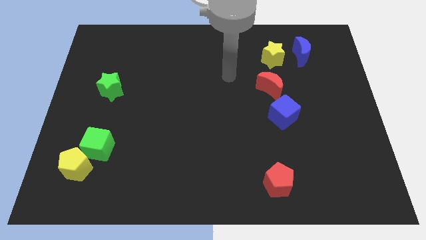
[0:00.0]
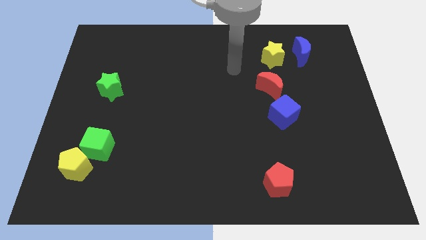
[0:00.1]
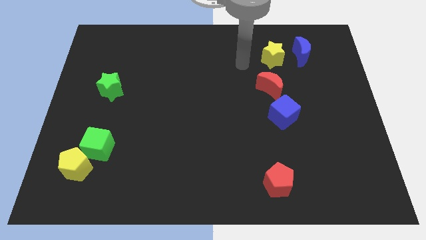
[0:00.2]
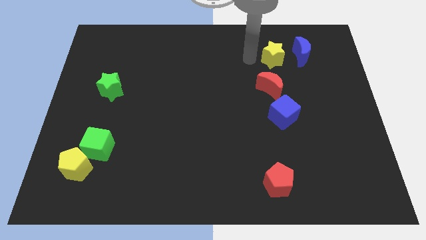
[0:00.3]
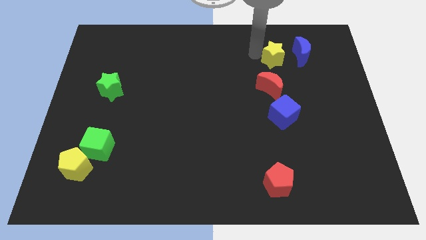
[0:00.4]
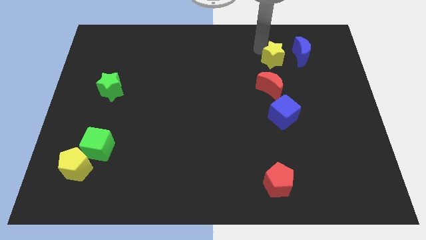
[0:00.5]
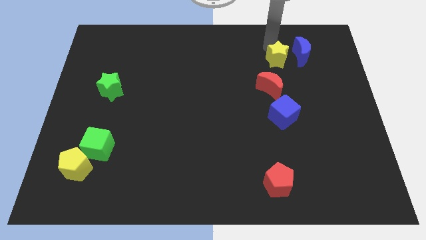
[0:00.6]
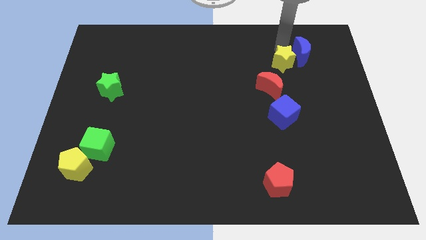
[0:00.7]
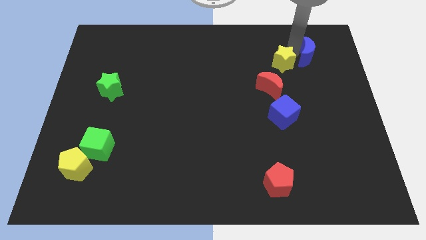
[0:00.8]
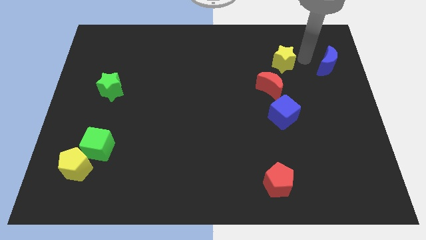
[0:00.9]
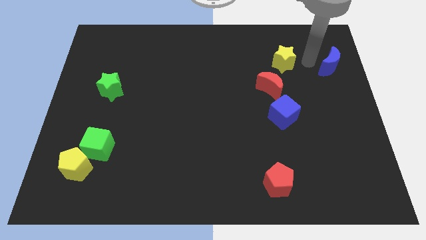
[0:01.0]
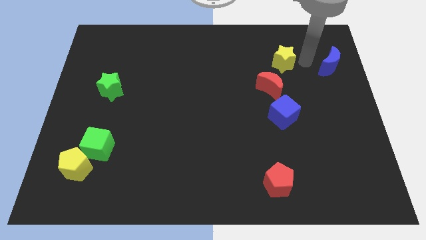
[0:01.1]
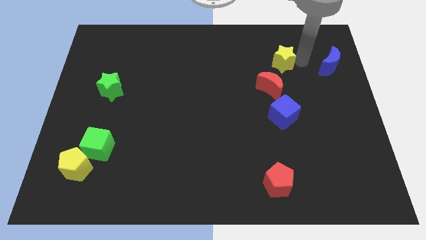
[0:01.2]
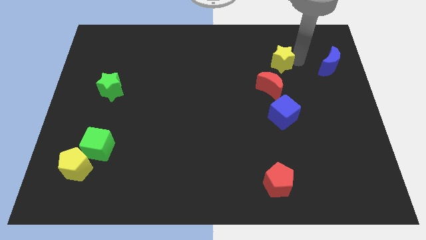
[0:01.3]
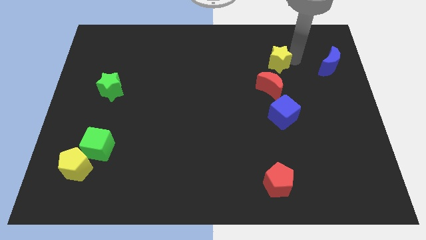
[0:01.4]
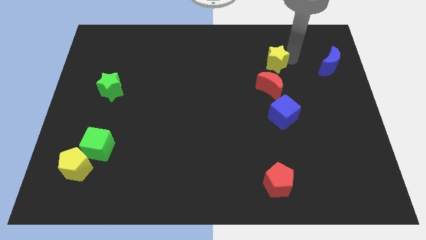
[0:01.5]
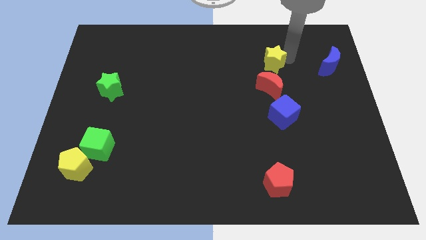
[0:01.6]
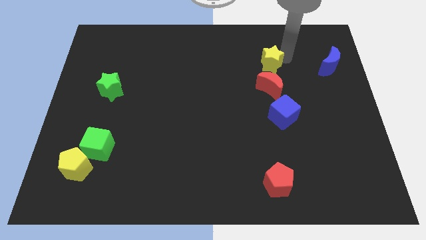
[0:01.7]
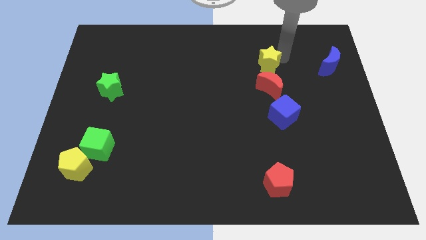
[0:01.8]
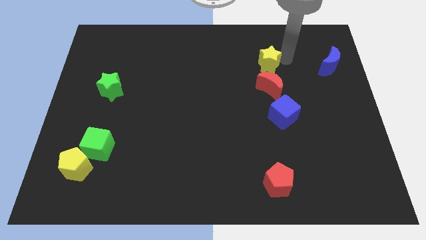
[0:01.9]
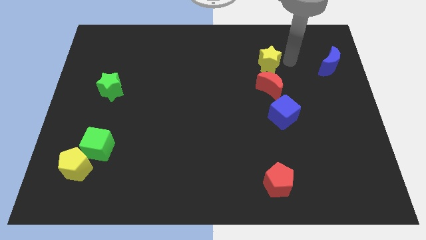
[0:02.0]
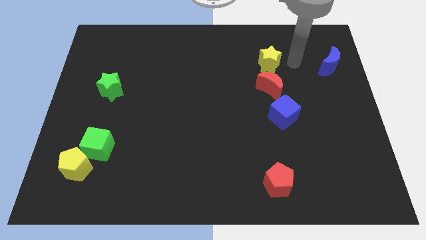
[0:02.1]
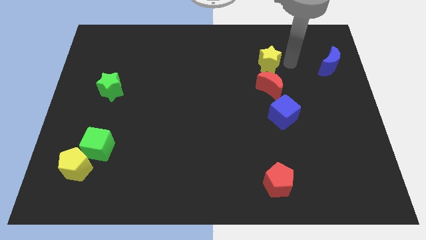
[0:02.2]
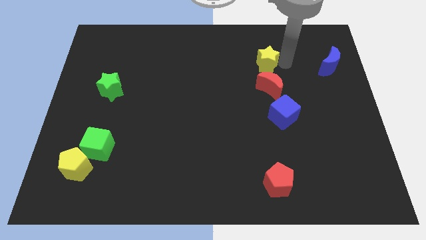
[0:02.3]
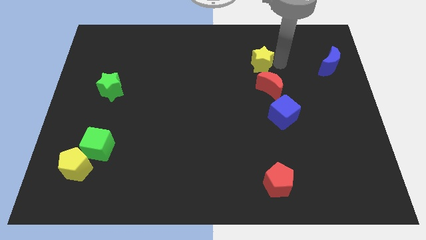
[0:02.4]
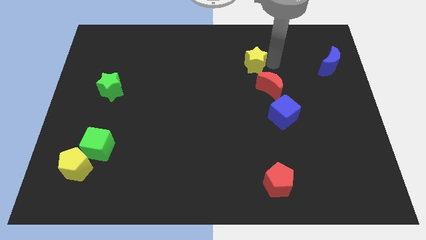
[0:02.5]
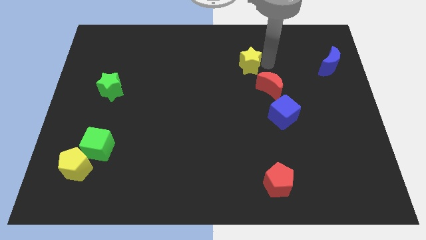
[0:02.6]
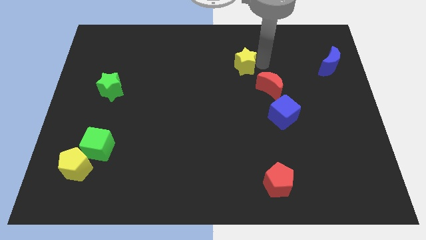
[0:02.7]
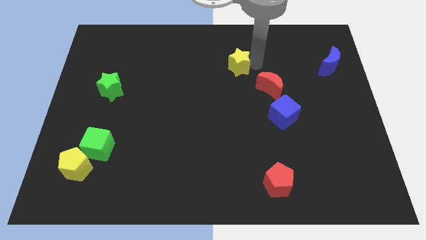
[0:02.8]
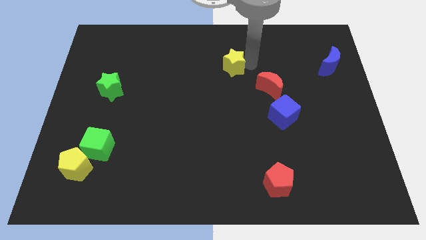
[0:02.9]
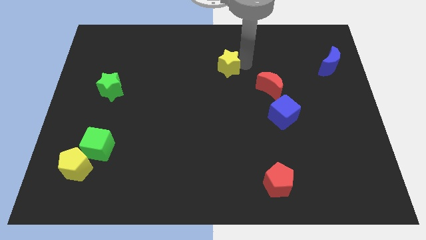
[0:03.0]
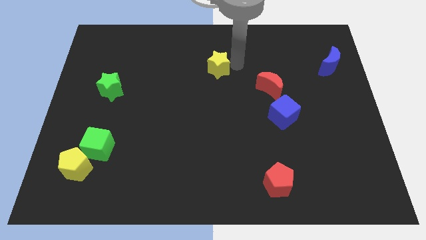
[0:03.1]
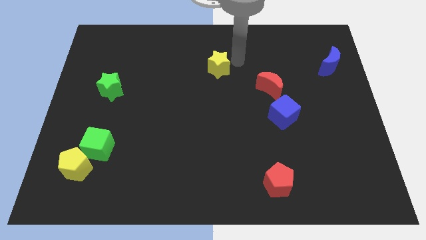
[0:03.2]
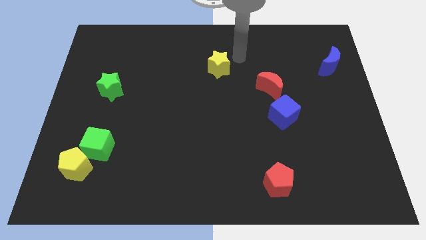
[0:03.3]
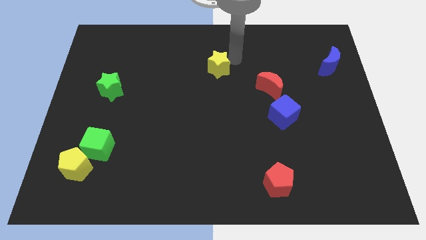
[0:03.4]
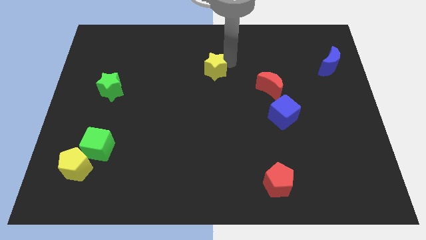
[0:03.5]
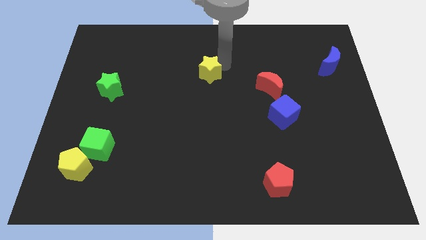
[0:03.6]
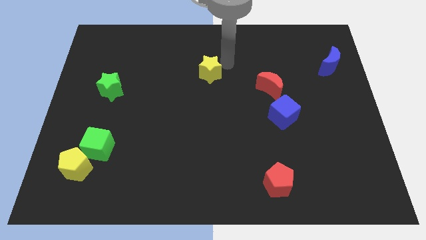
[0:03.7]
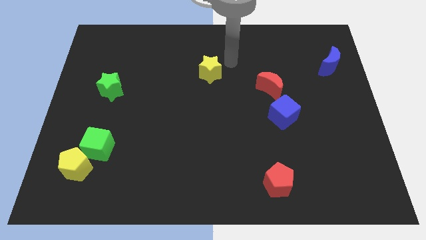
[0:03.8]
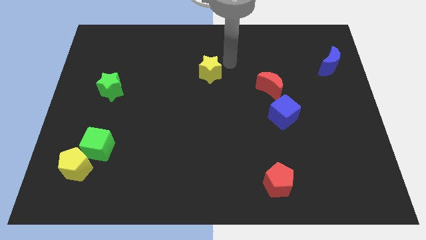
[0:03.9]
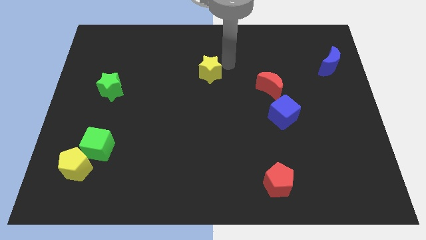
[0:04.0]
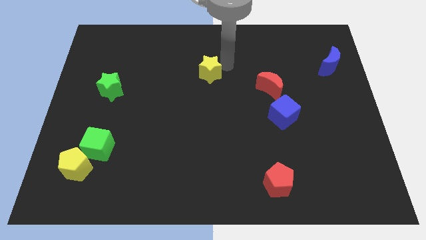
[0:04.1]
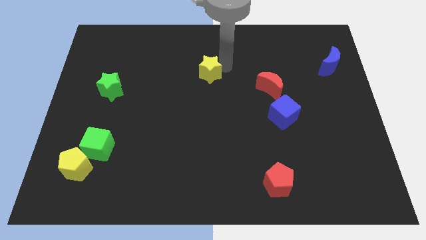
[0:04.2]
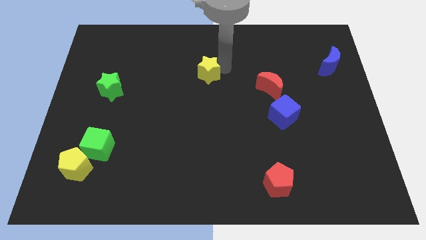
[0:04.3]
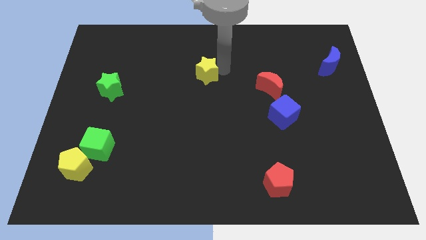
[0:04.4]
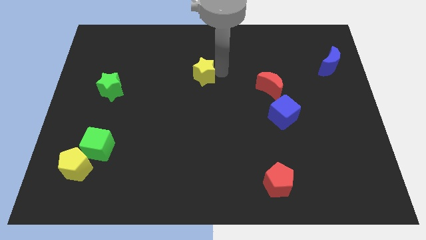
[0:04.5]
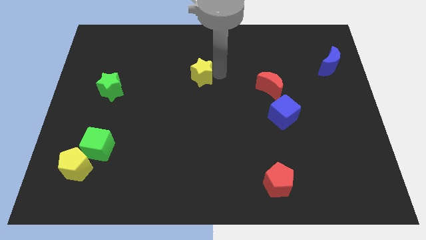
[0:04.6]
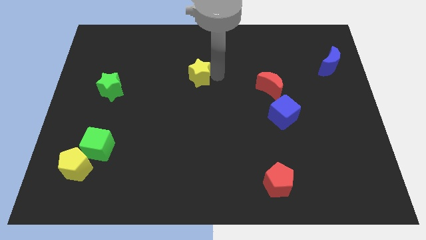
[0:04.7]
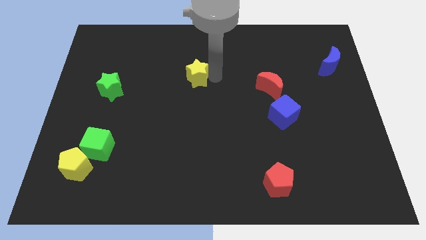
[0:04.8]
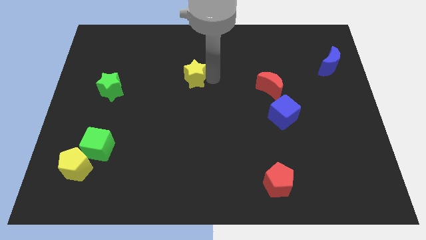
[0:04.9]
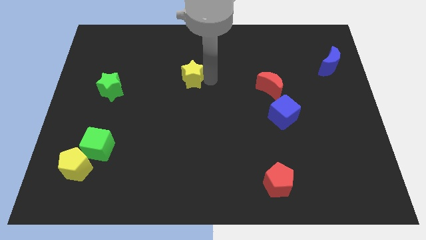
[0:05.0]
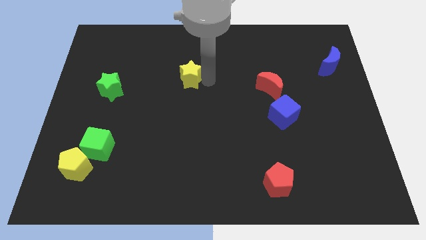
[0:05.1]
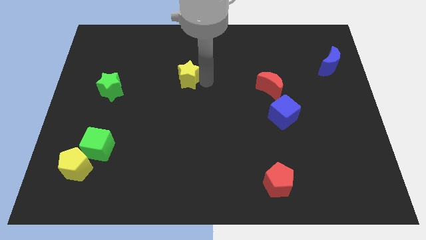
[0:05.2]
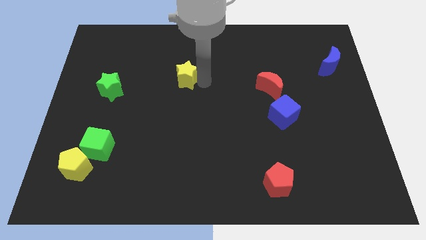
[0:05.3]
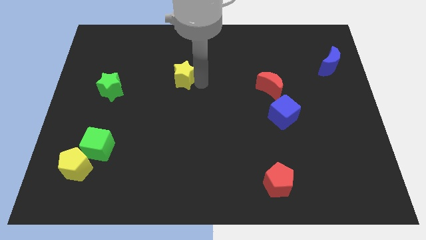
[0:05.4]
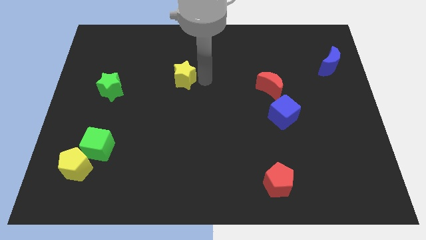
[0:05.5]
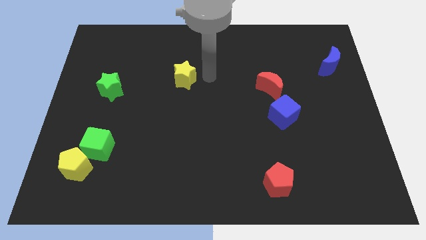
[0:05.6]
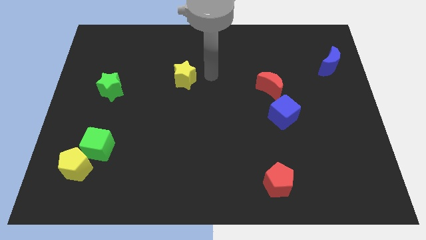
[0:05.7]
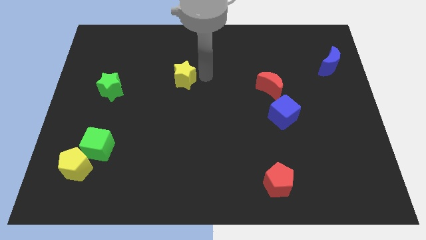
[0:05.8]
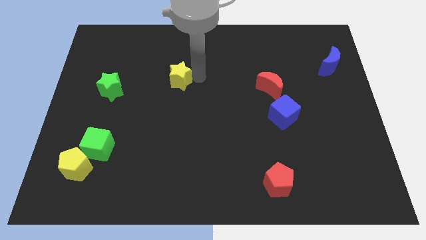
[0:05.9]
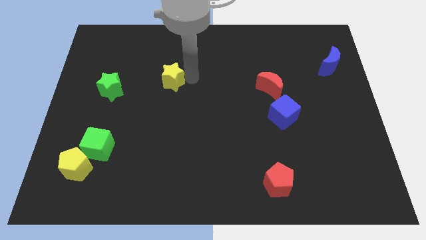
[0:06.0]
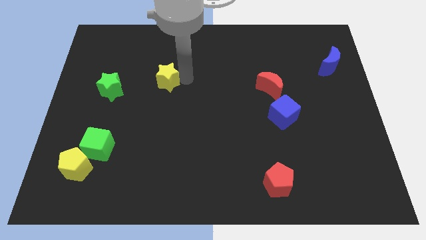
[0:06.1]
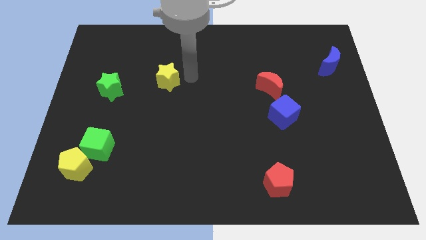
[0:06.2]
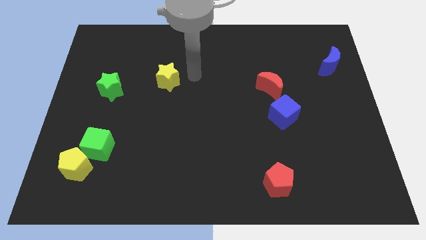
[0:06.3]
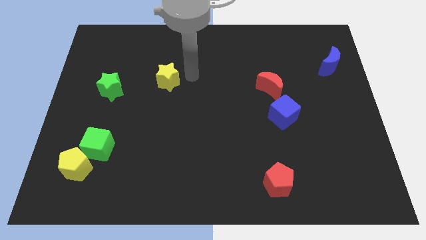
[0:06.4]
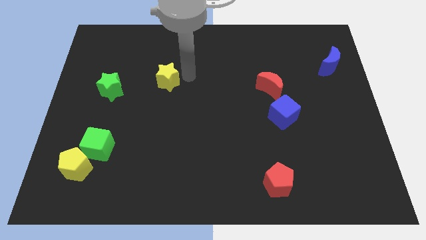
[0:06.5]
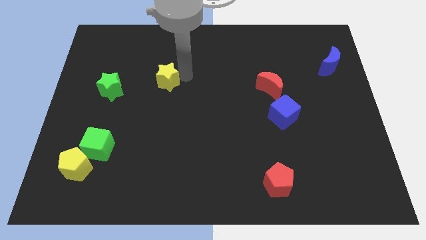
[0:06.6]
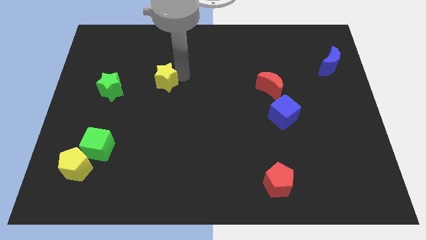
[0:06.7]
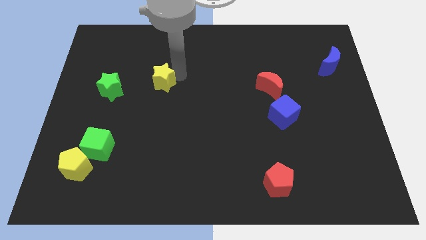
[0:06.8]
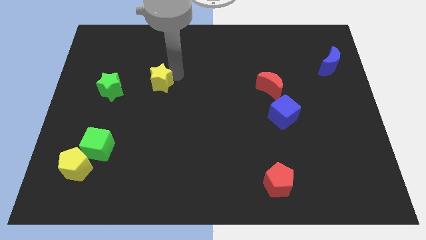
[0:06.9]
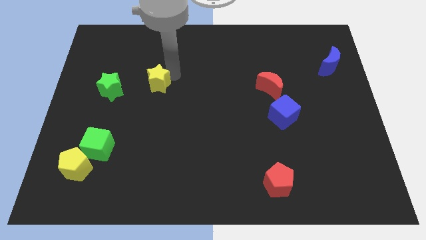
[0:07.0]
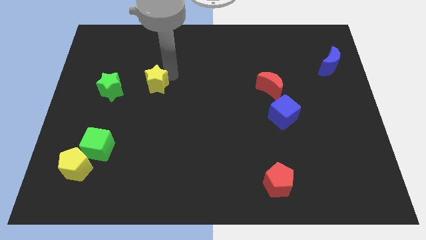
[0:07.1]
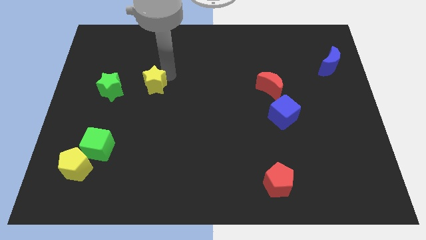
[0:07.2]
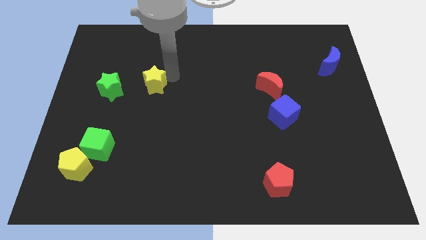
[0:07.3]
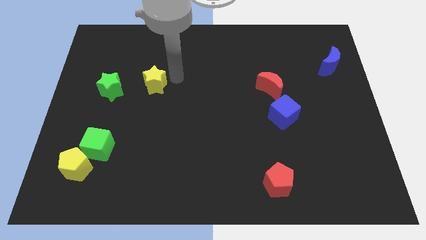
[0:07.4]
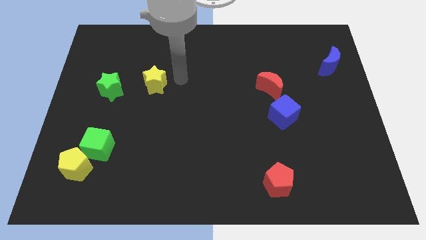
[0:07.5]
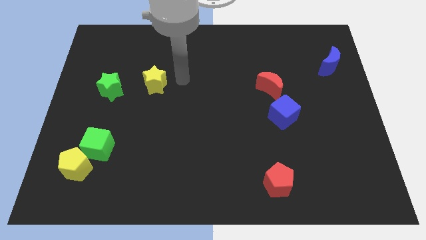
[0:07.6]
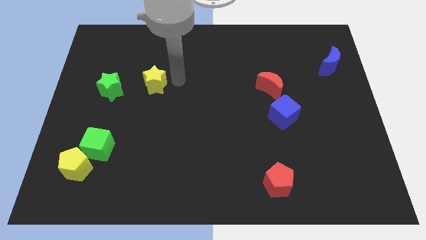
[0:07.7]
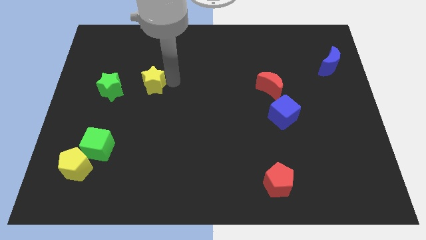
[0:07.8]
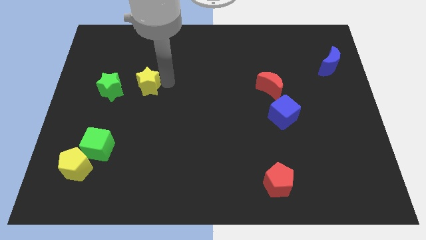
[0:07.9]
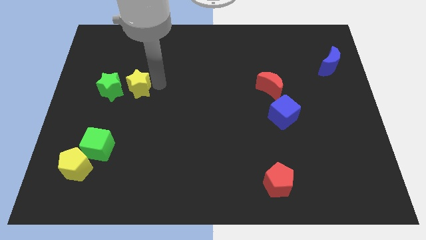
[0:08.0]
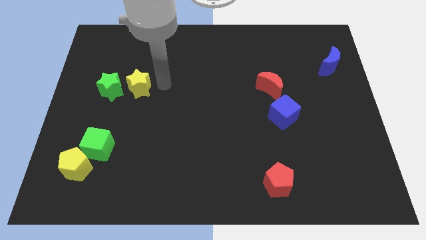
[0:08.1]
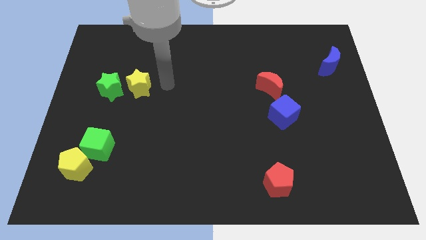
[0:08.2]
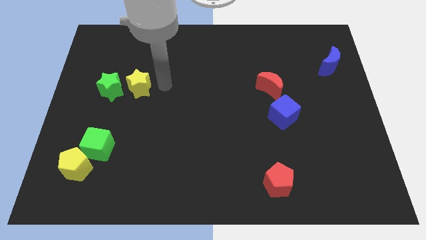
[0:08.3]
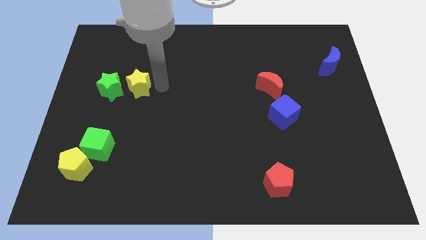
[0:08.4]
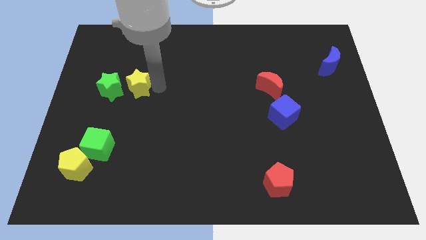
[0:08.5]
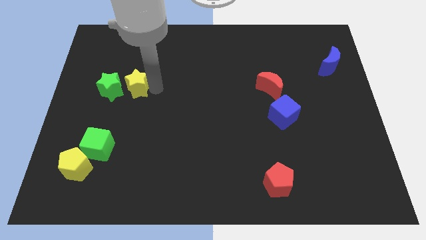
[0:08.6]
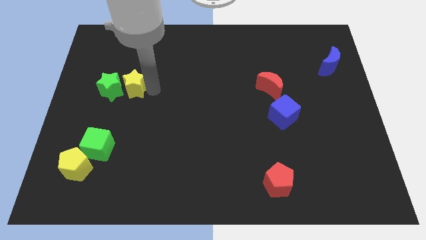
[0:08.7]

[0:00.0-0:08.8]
slide the yellow star close to the green star
